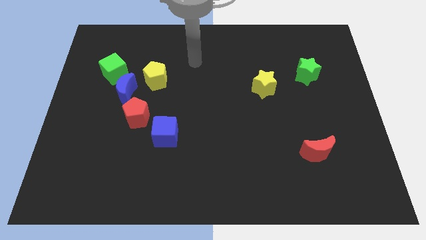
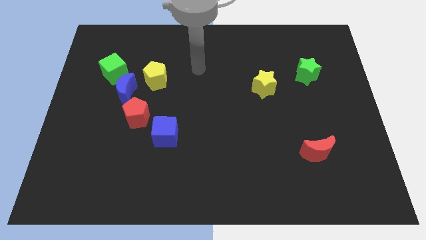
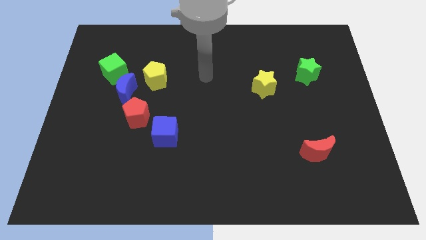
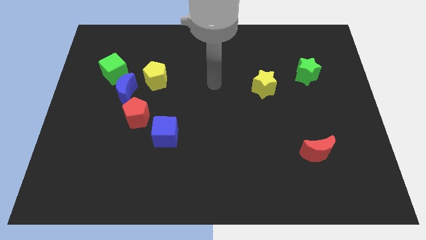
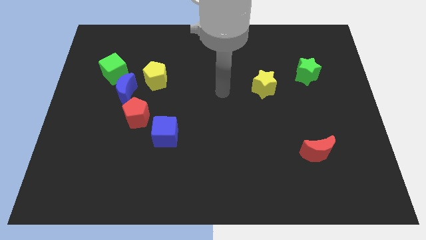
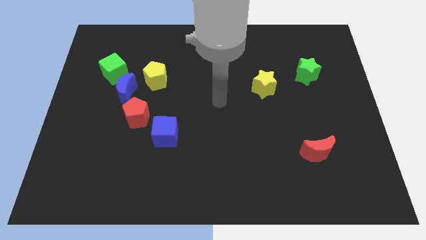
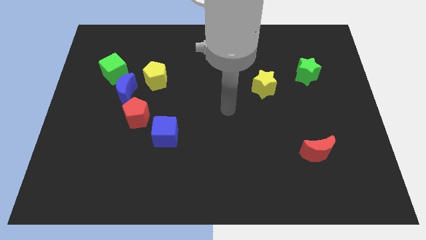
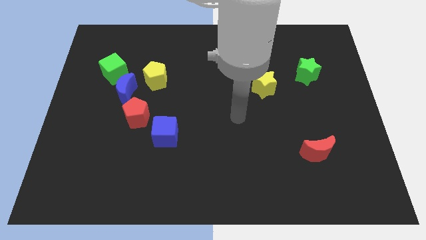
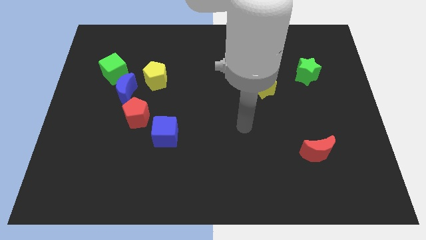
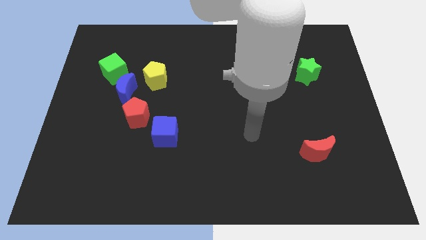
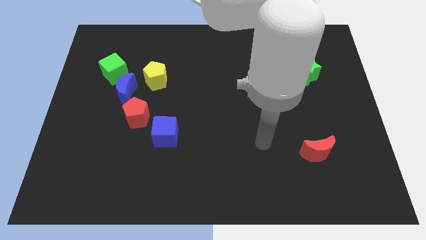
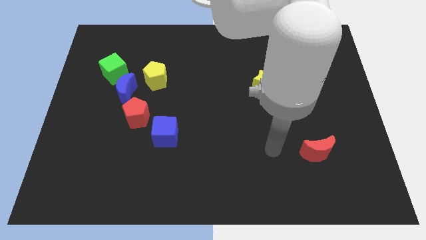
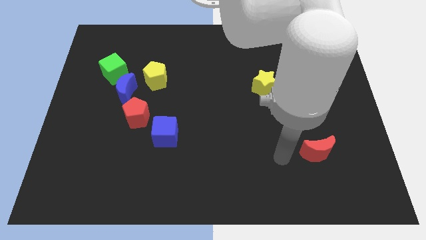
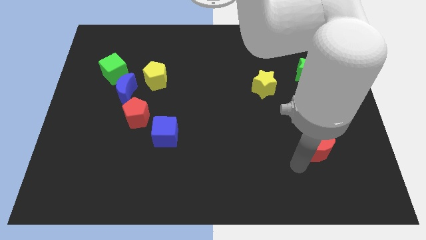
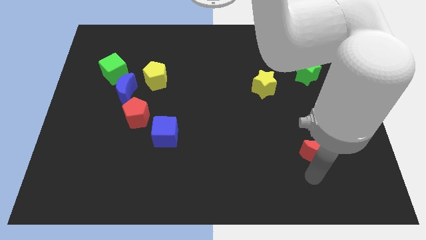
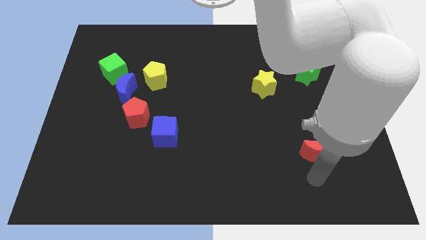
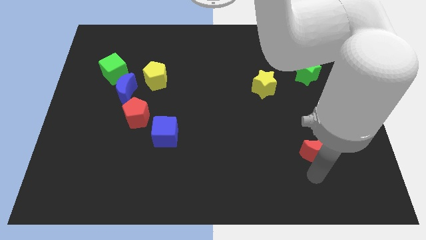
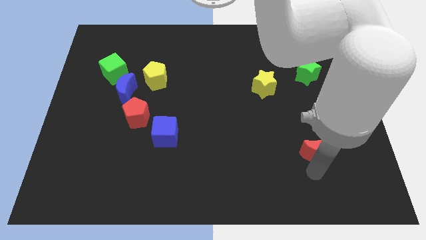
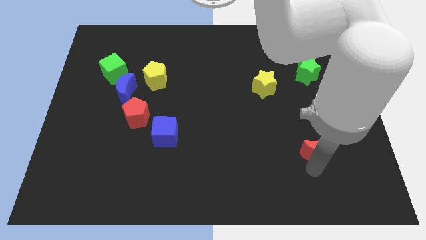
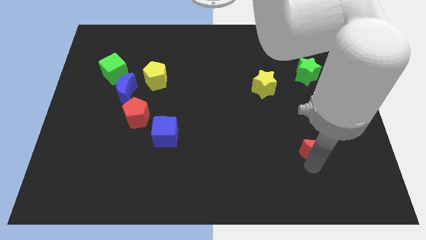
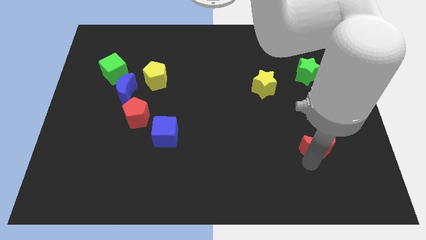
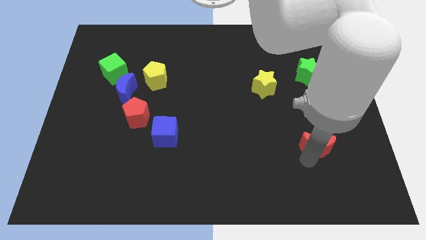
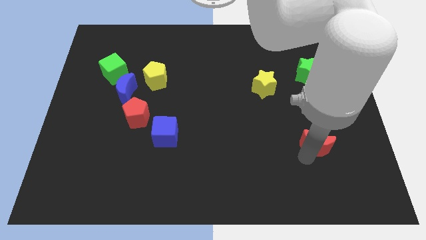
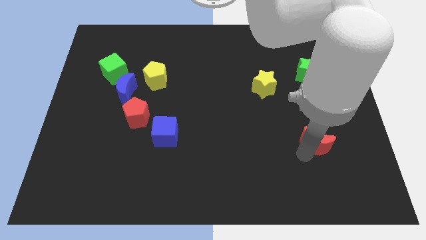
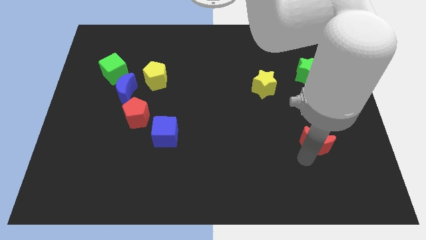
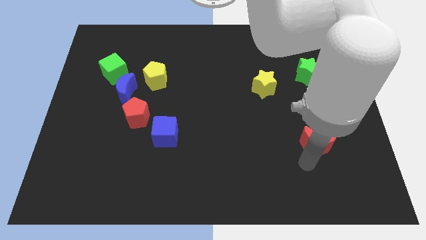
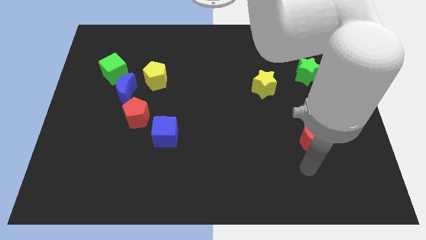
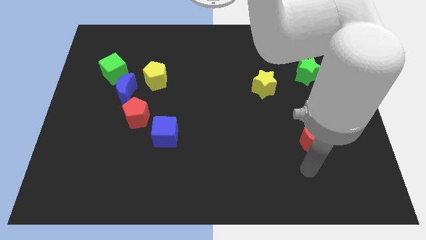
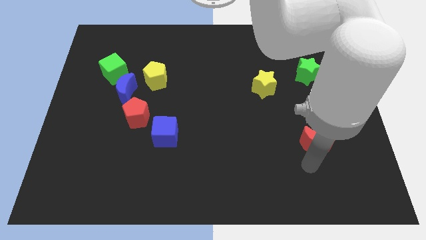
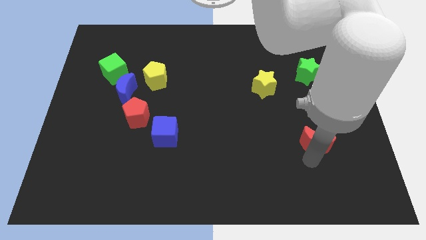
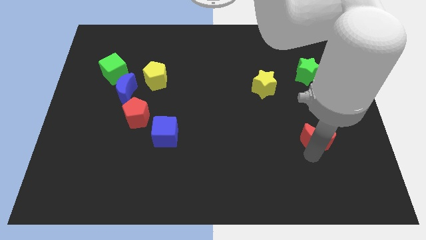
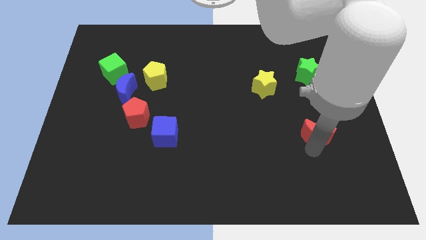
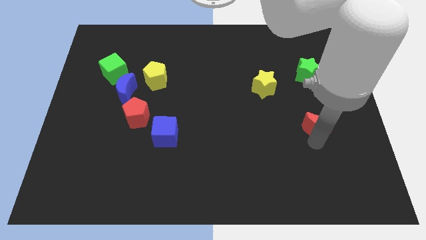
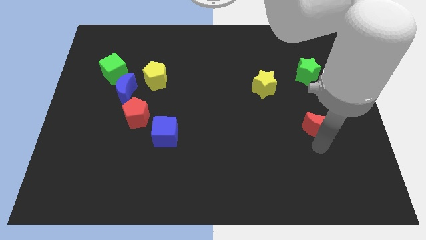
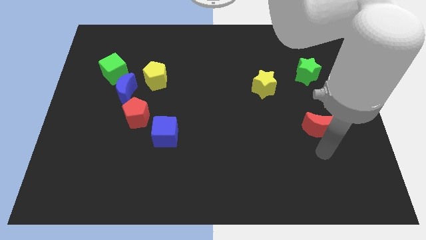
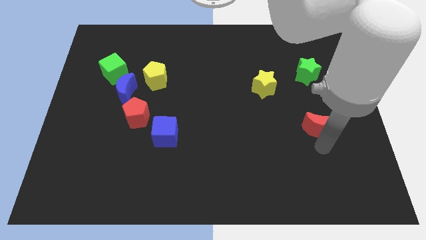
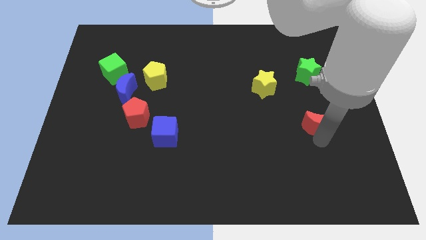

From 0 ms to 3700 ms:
push the red moon a bit up

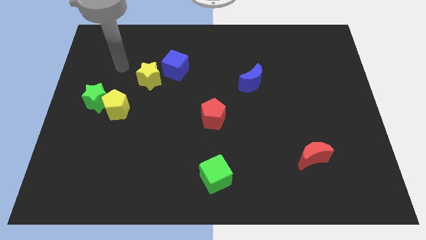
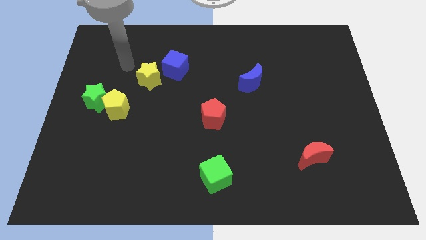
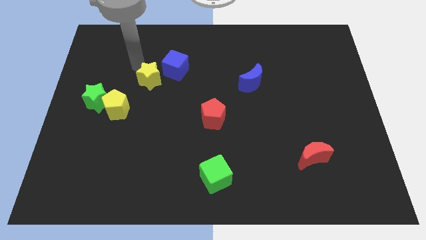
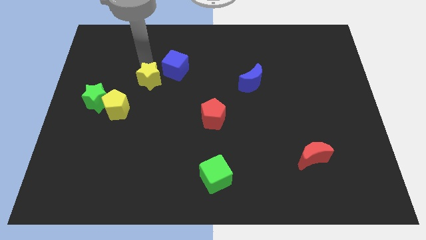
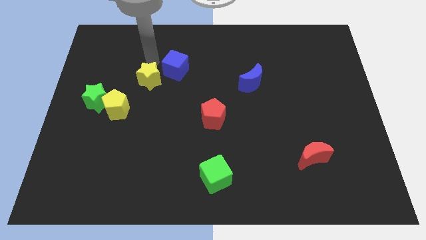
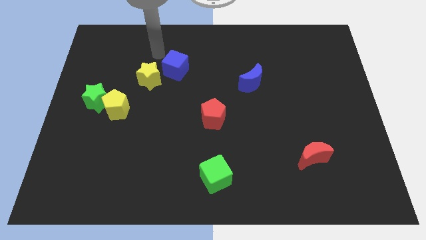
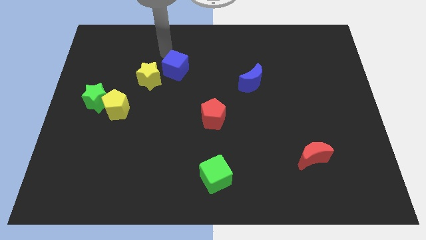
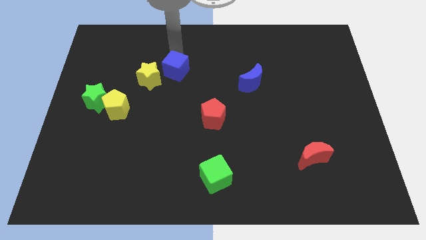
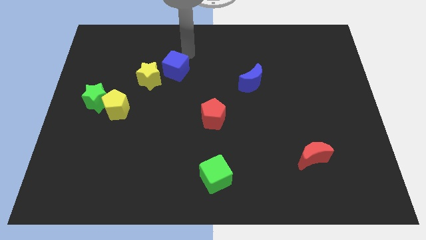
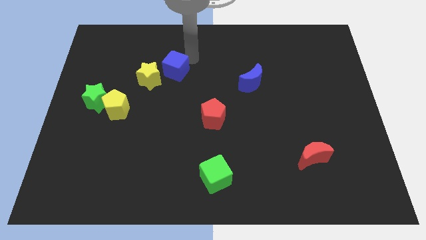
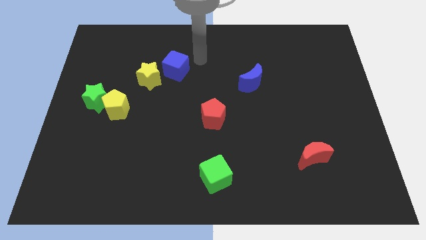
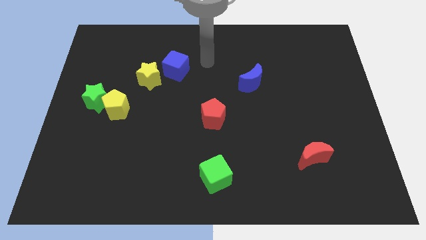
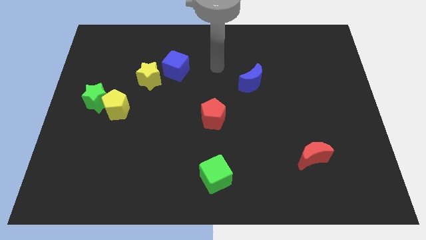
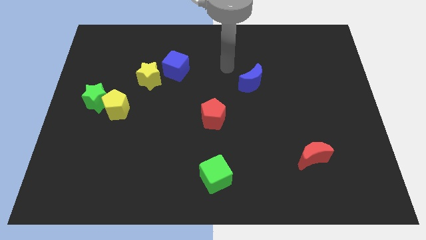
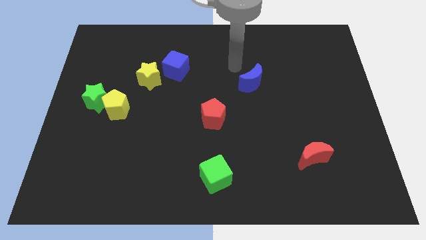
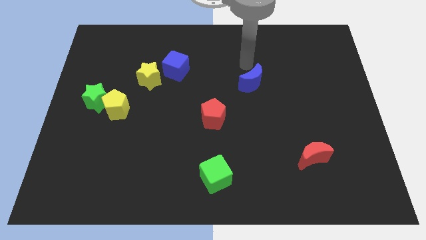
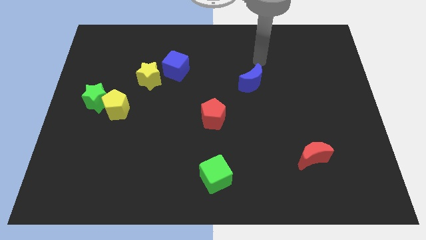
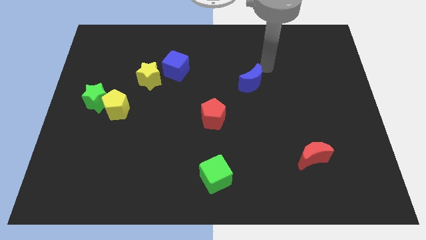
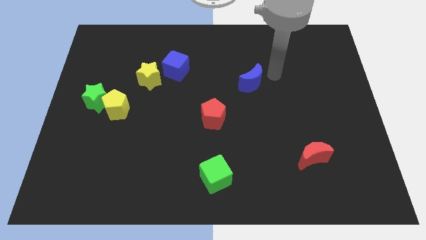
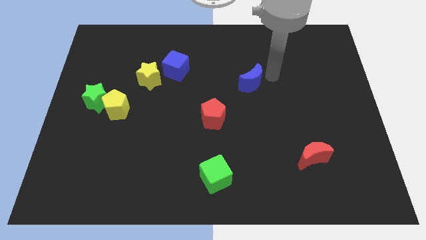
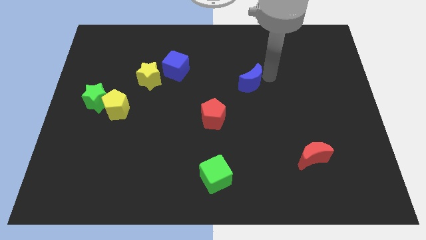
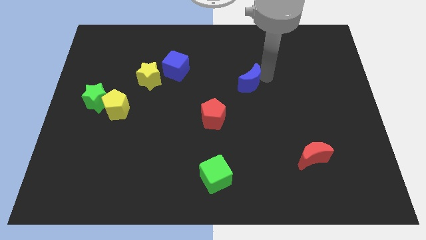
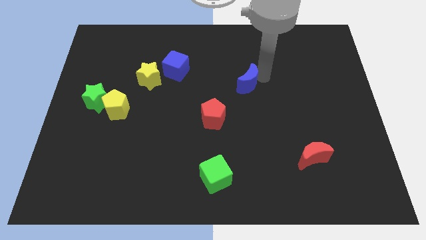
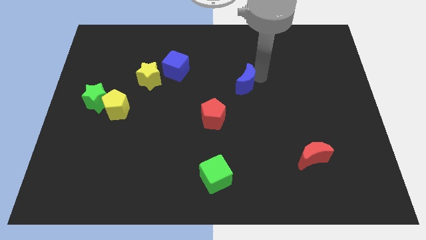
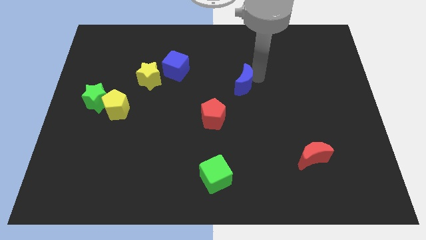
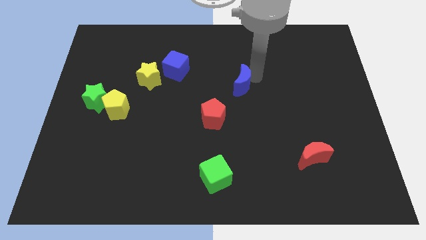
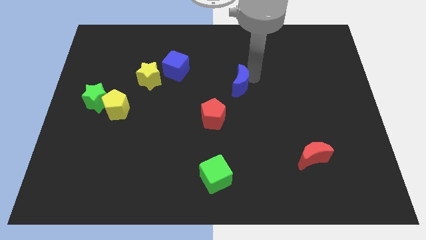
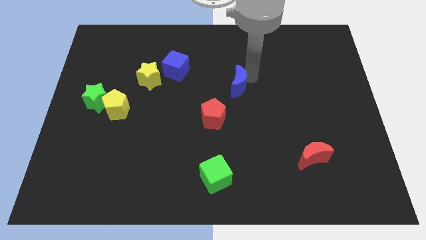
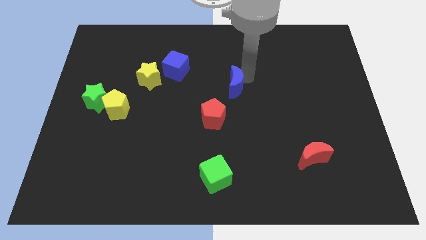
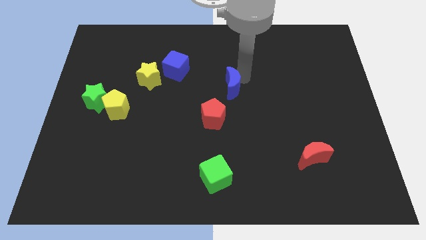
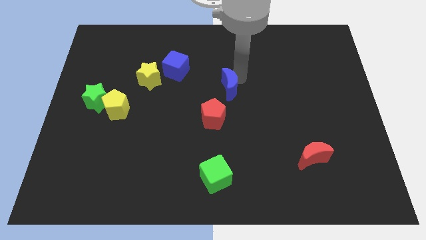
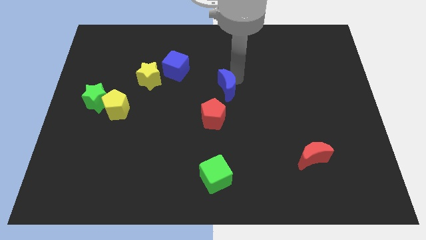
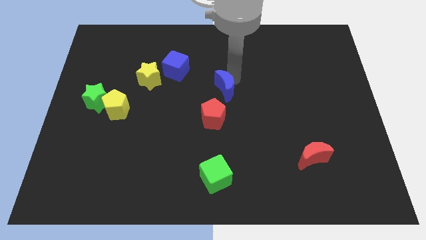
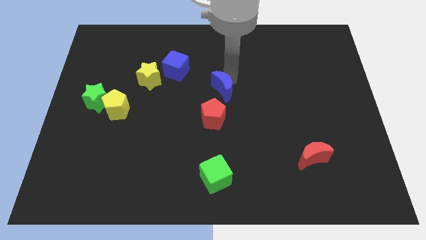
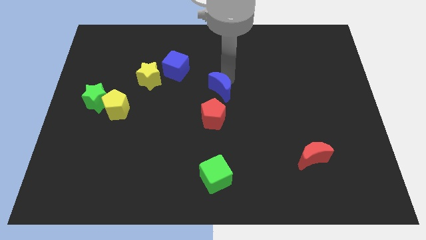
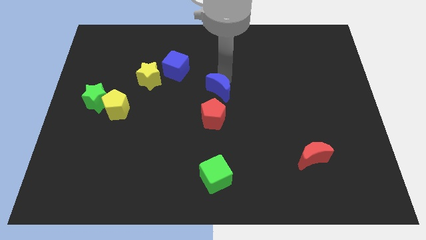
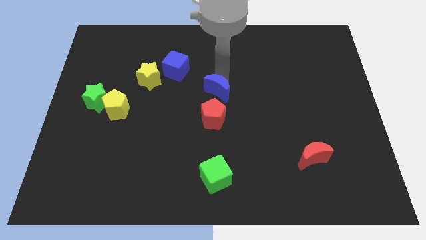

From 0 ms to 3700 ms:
slightly push the blue moon downwards and to the left diagonally

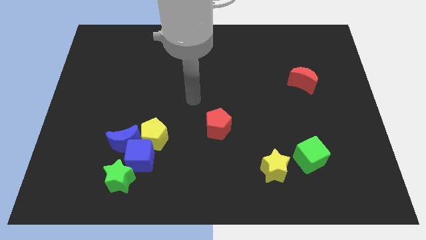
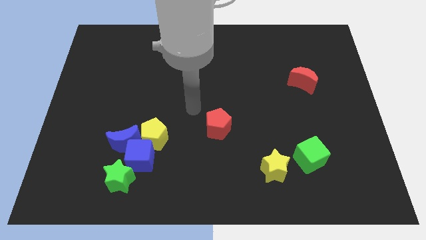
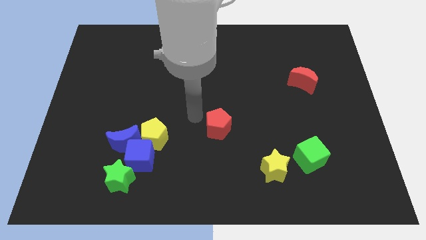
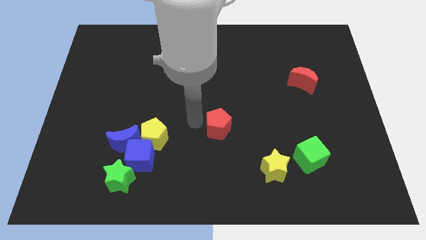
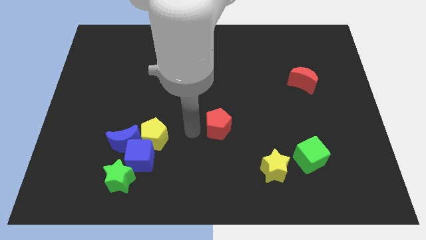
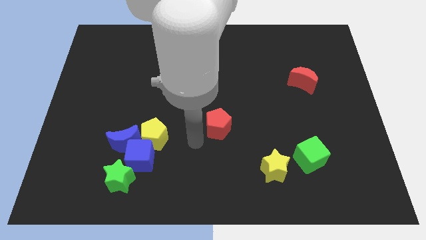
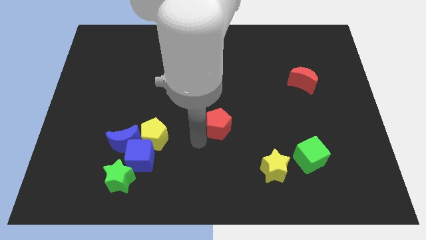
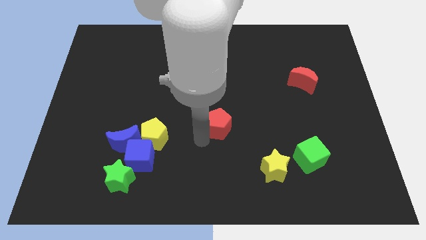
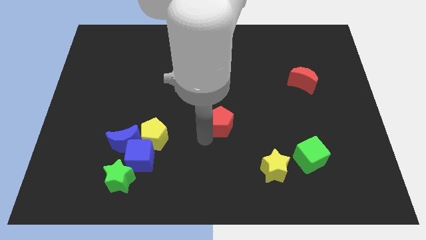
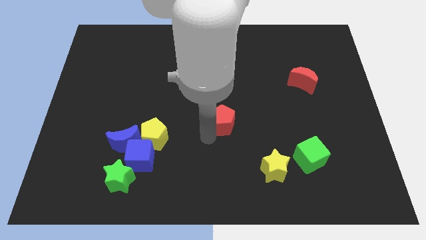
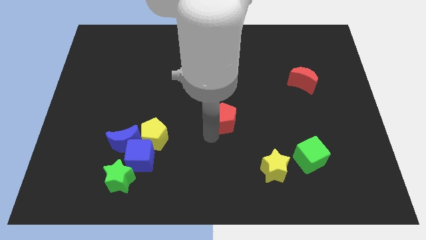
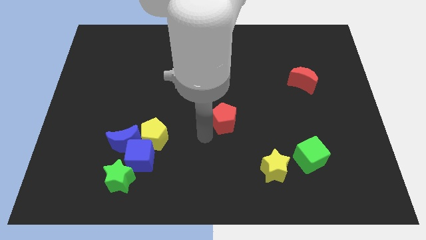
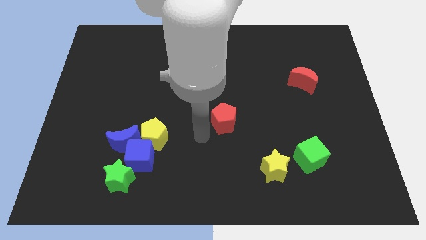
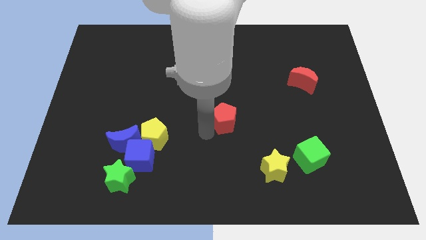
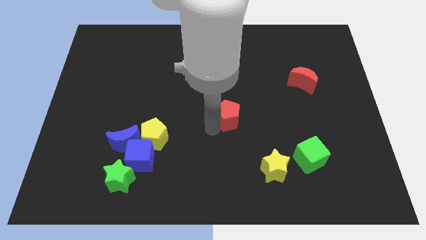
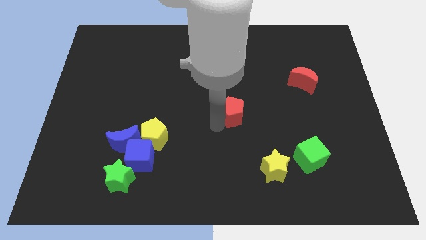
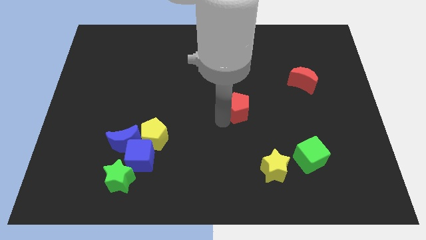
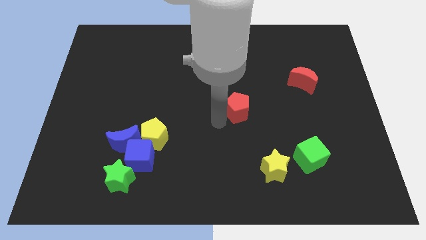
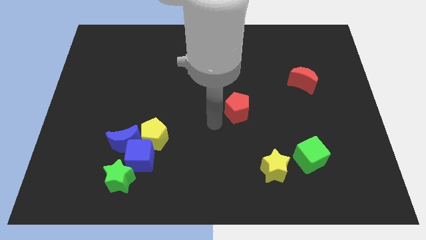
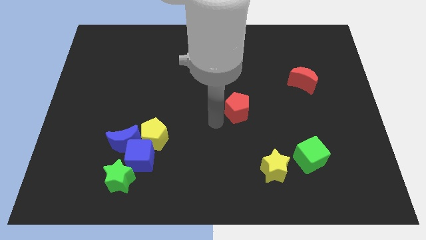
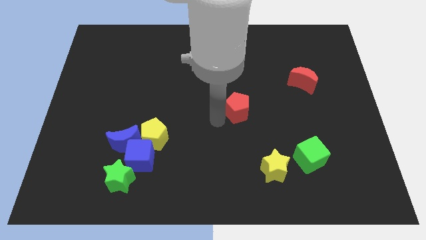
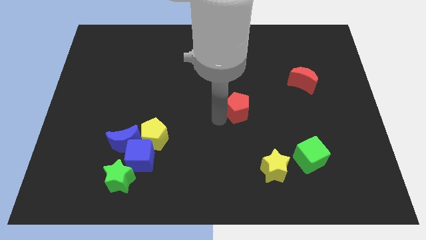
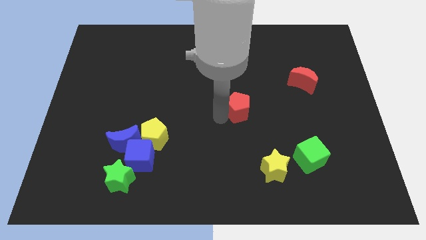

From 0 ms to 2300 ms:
slightly slide the red pentagon up and to the right
